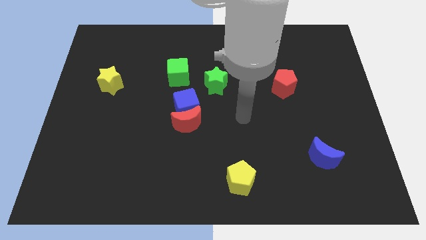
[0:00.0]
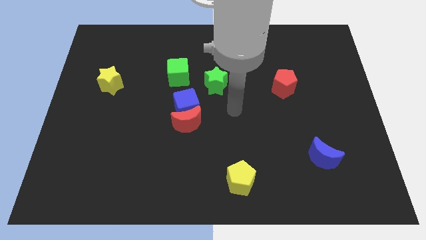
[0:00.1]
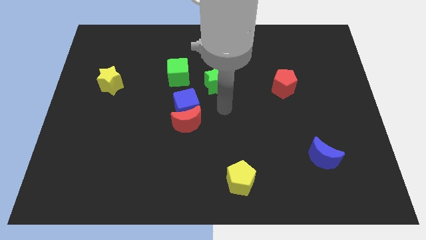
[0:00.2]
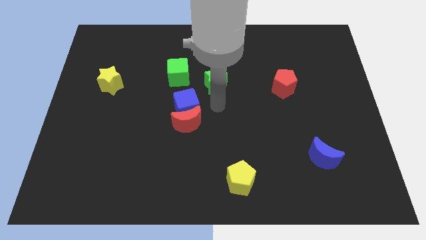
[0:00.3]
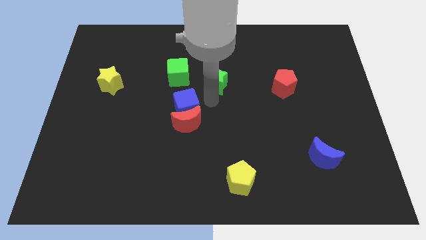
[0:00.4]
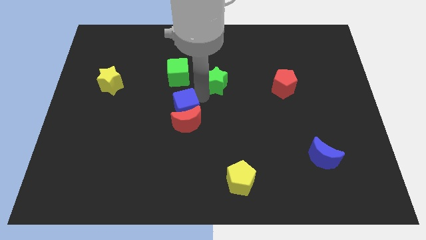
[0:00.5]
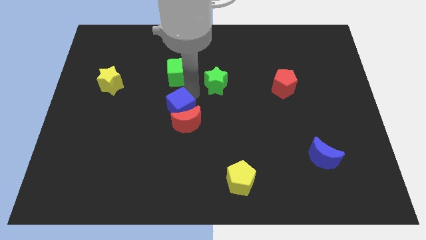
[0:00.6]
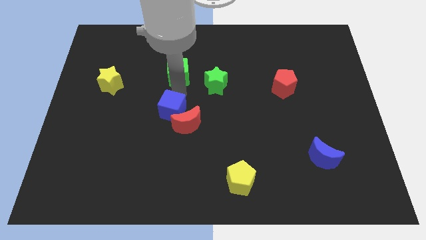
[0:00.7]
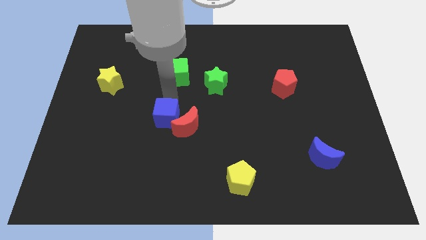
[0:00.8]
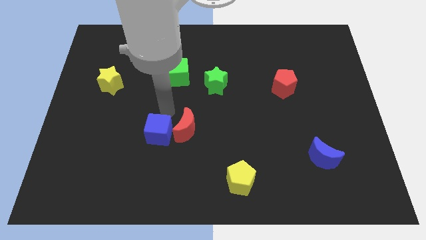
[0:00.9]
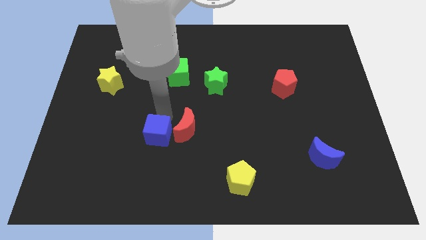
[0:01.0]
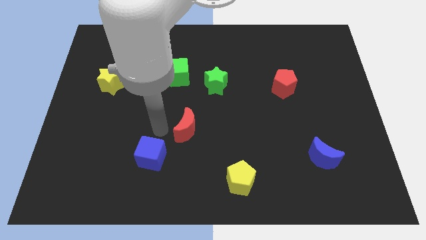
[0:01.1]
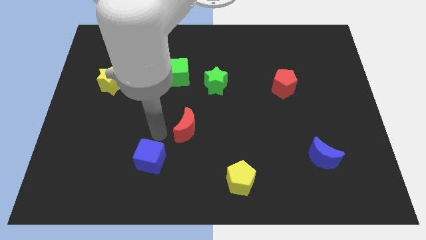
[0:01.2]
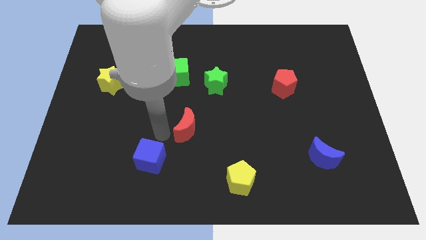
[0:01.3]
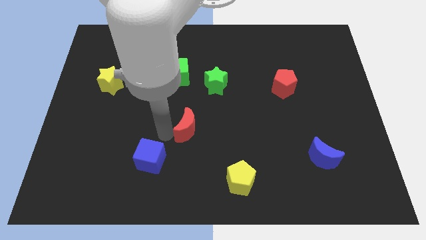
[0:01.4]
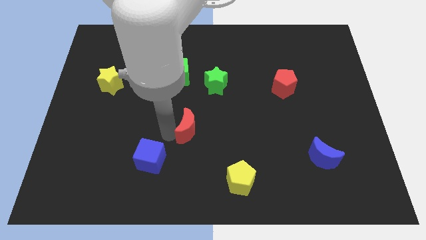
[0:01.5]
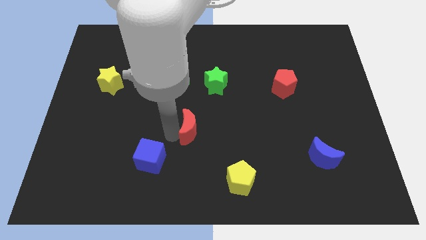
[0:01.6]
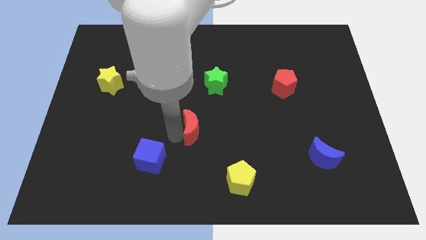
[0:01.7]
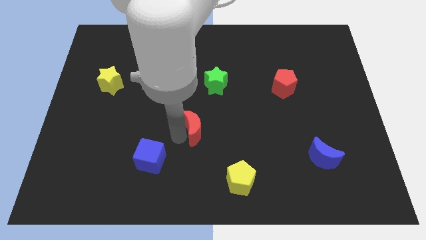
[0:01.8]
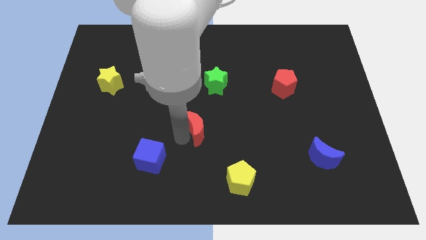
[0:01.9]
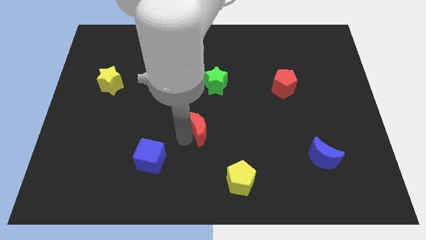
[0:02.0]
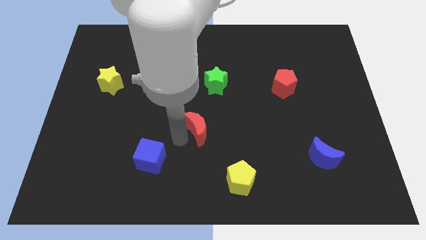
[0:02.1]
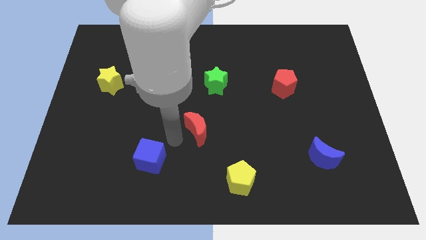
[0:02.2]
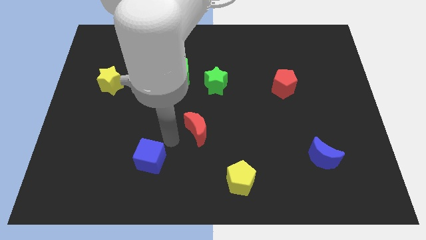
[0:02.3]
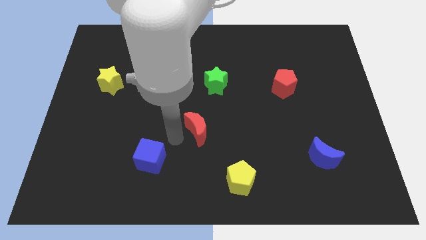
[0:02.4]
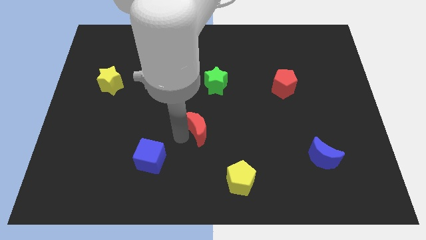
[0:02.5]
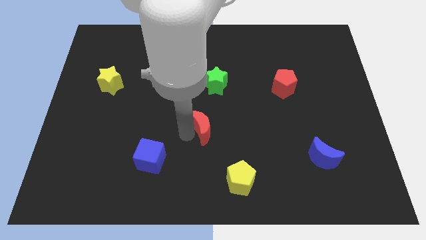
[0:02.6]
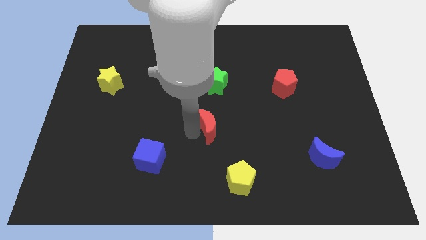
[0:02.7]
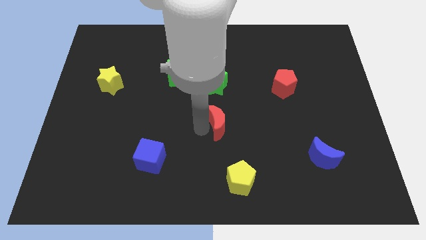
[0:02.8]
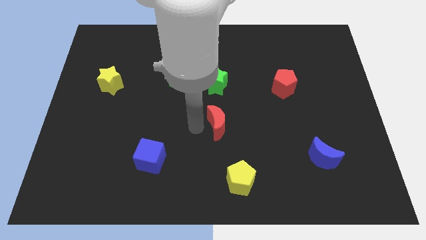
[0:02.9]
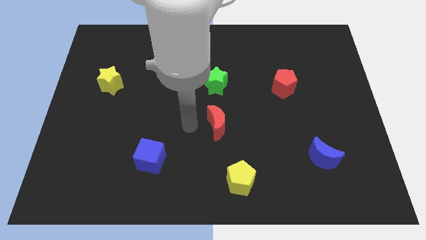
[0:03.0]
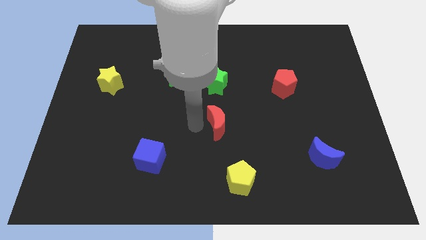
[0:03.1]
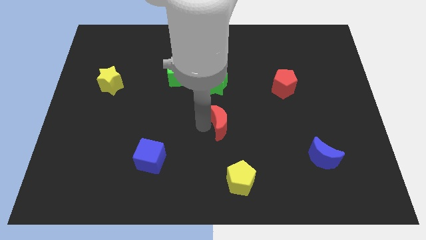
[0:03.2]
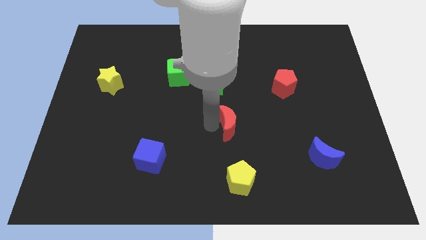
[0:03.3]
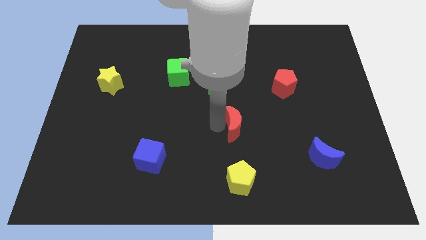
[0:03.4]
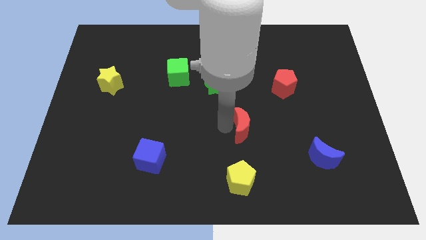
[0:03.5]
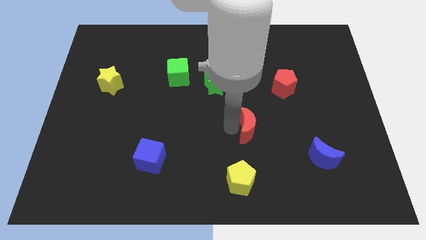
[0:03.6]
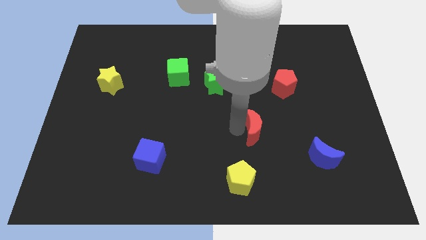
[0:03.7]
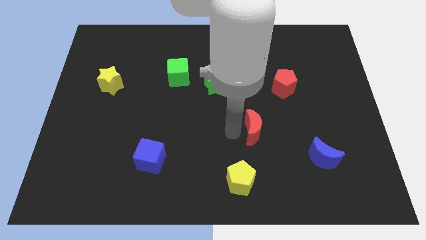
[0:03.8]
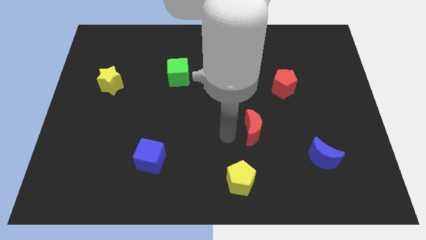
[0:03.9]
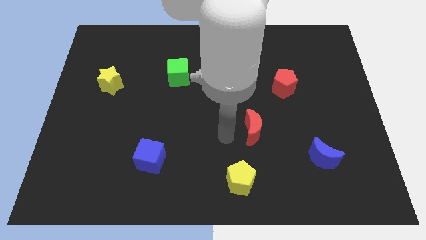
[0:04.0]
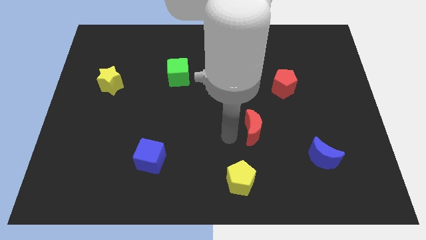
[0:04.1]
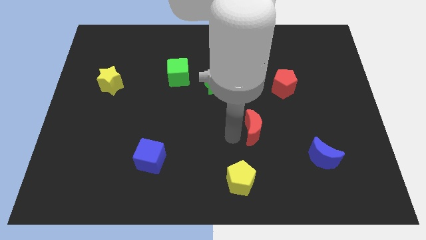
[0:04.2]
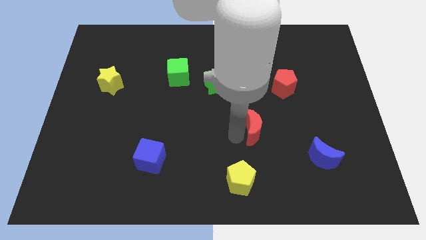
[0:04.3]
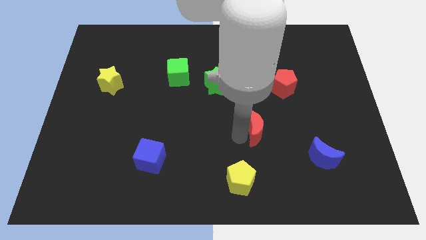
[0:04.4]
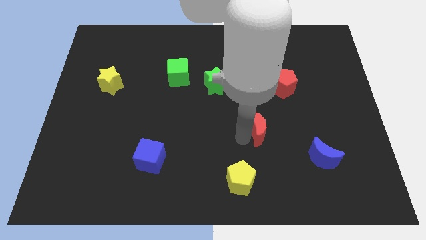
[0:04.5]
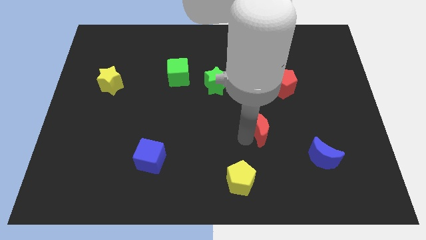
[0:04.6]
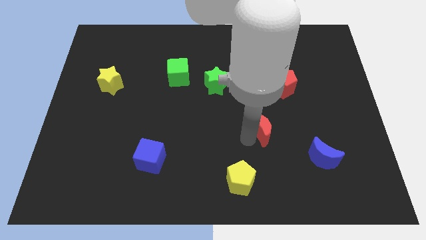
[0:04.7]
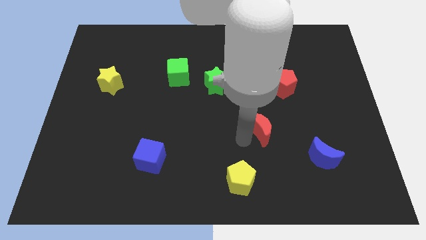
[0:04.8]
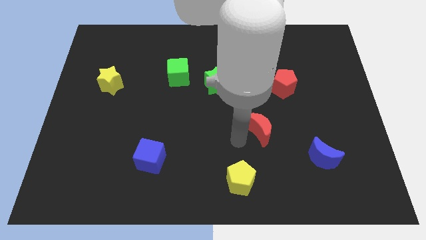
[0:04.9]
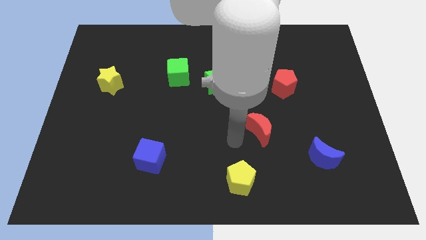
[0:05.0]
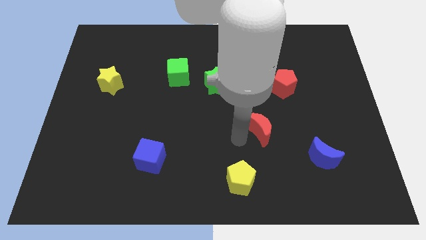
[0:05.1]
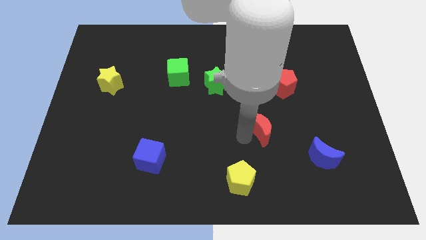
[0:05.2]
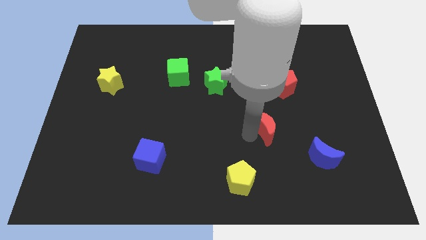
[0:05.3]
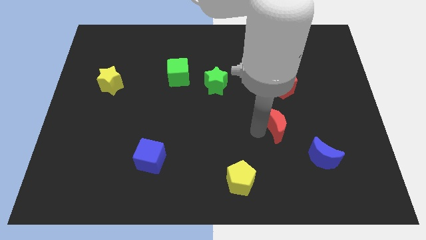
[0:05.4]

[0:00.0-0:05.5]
slide the red moon to the right

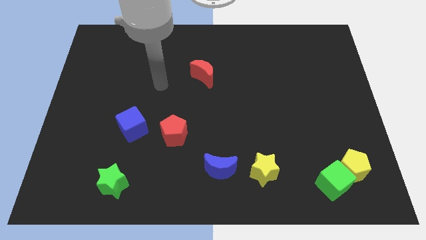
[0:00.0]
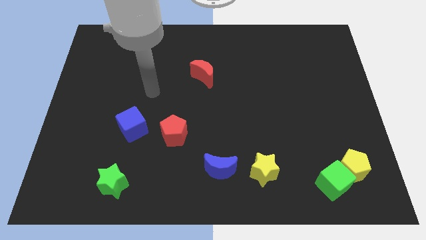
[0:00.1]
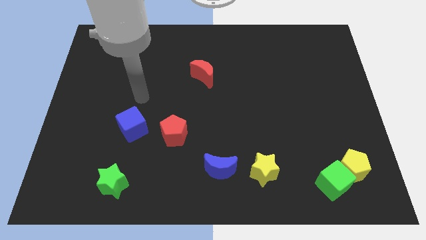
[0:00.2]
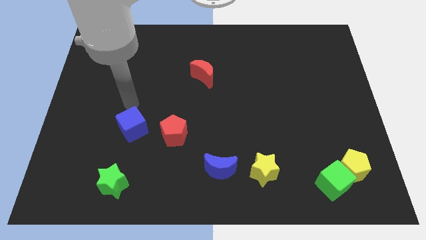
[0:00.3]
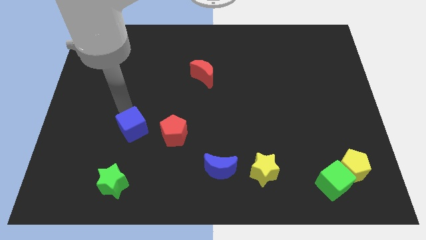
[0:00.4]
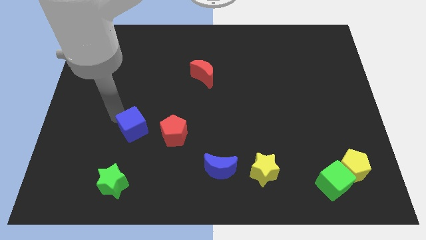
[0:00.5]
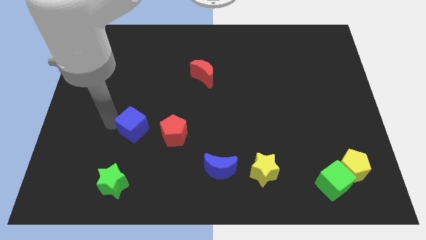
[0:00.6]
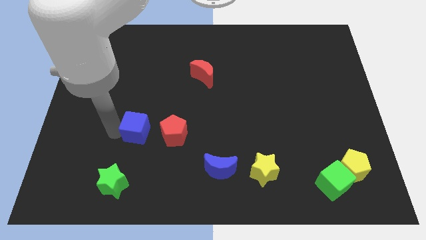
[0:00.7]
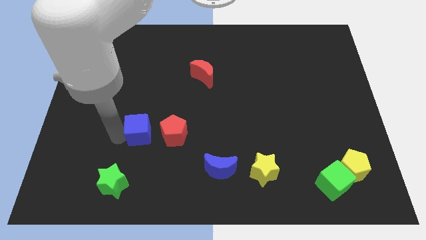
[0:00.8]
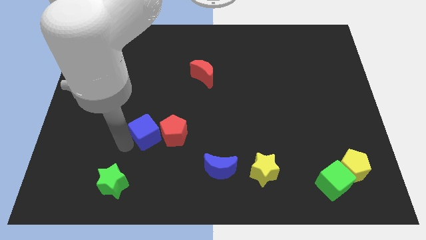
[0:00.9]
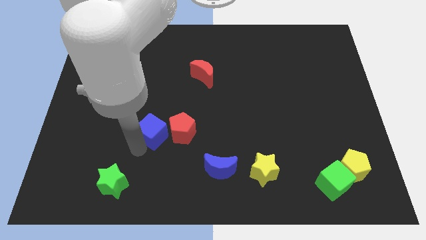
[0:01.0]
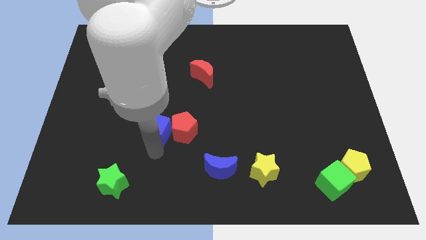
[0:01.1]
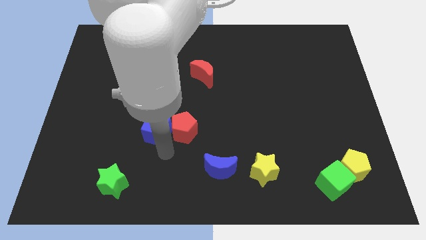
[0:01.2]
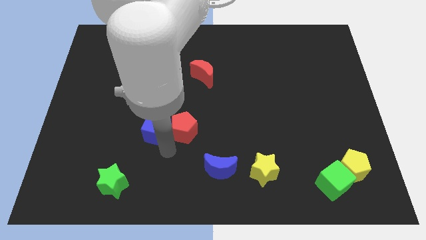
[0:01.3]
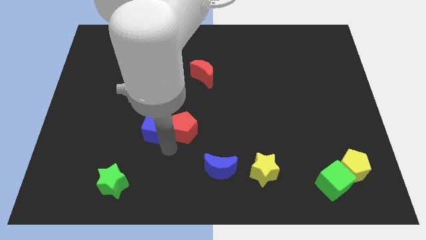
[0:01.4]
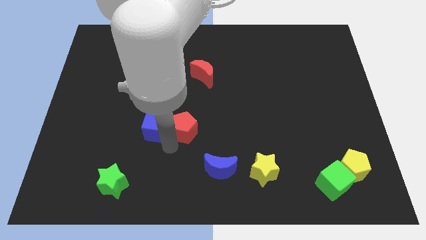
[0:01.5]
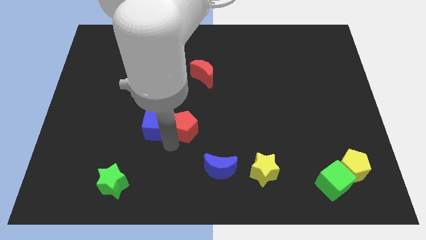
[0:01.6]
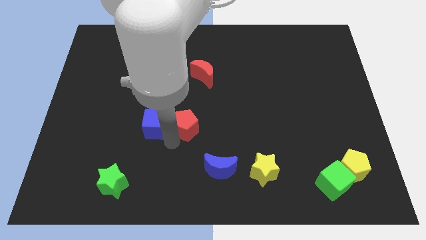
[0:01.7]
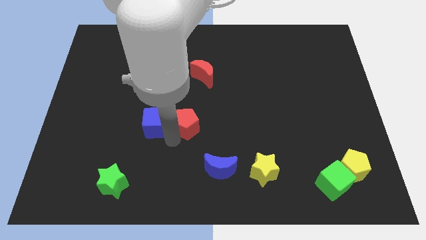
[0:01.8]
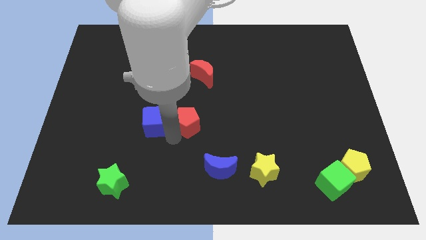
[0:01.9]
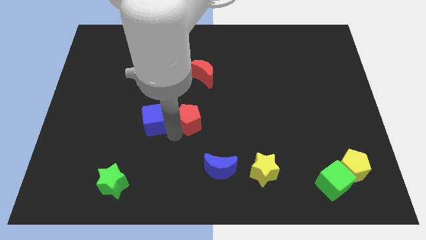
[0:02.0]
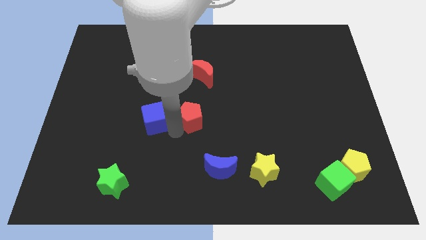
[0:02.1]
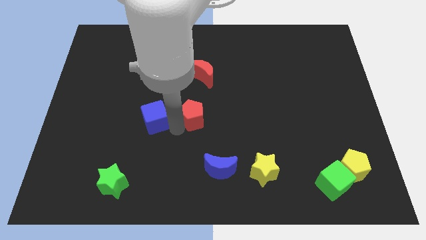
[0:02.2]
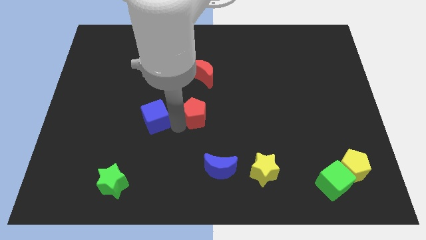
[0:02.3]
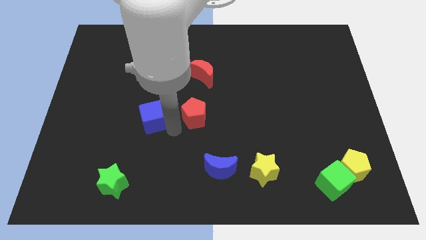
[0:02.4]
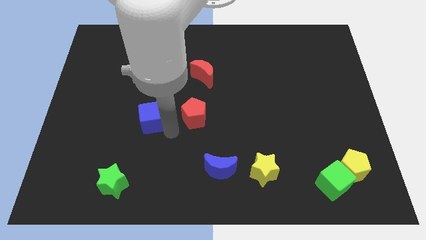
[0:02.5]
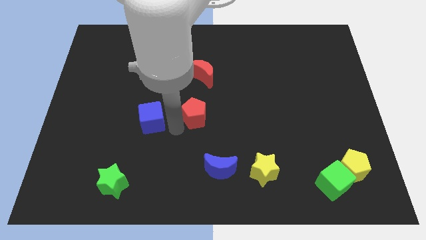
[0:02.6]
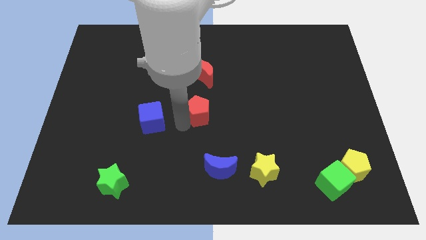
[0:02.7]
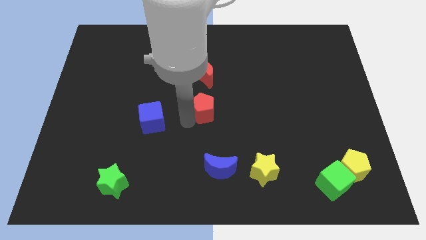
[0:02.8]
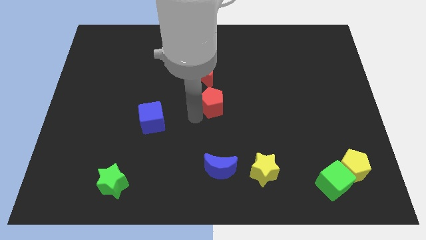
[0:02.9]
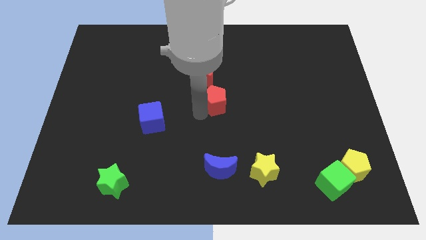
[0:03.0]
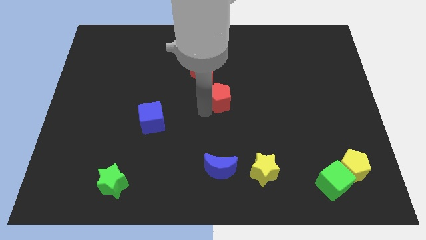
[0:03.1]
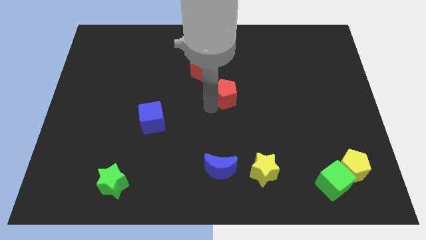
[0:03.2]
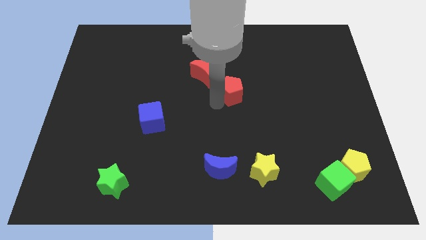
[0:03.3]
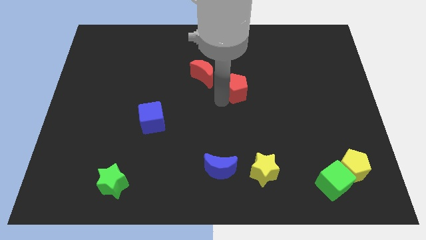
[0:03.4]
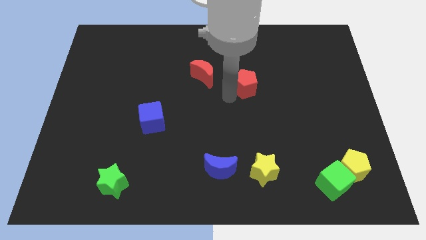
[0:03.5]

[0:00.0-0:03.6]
slide the red pentagon diagonally upwards and right
